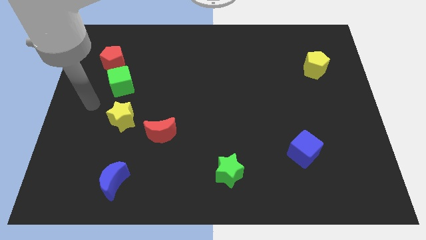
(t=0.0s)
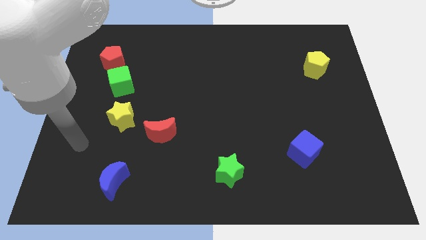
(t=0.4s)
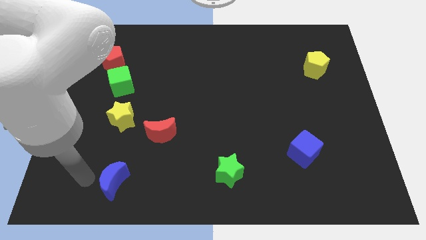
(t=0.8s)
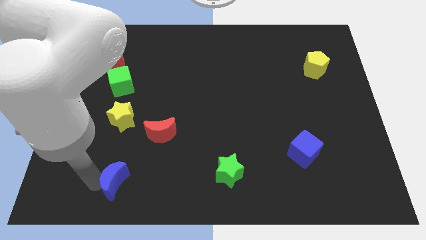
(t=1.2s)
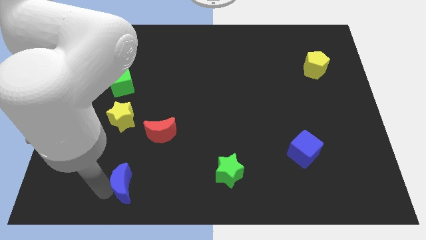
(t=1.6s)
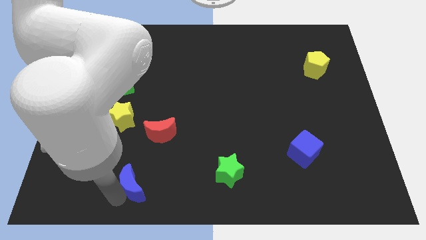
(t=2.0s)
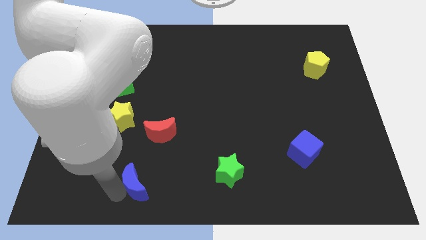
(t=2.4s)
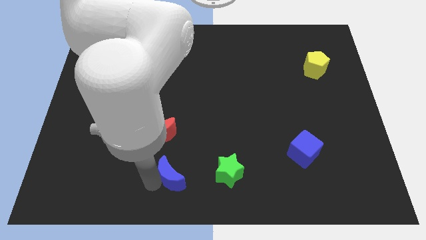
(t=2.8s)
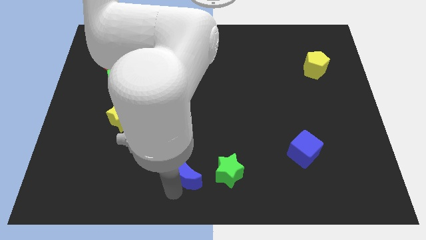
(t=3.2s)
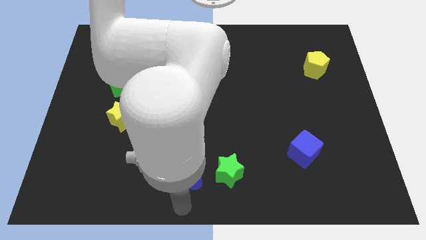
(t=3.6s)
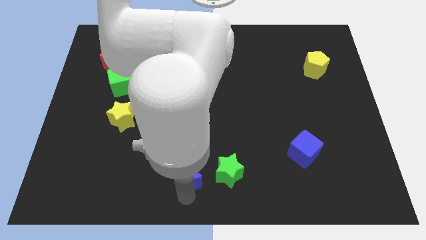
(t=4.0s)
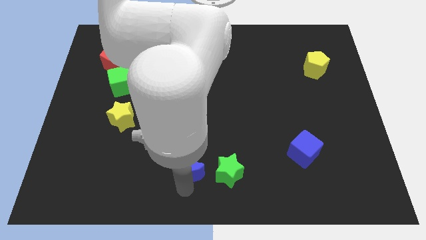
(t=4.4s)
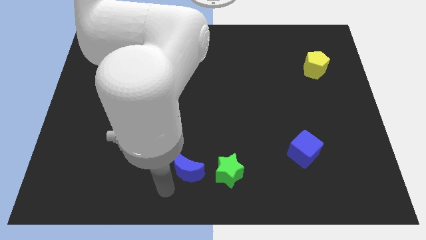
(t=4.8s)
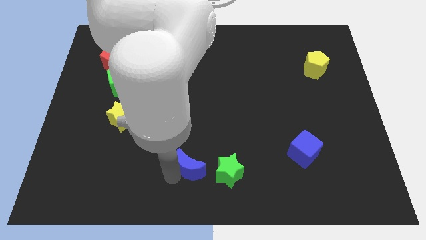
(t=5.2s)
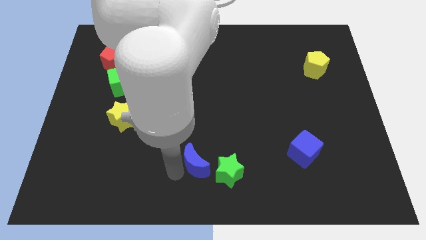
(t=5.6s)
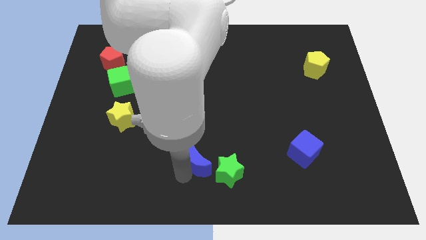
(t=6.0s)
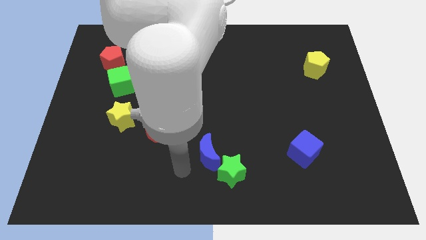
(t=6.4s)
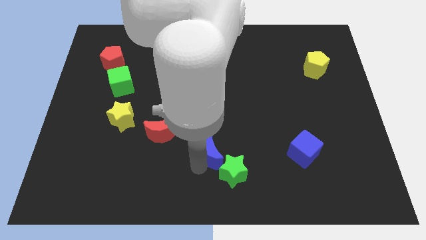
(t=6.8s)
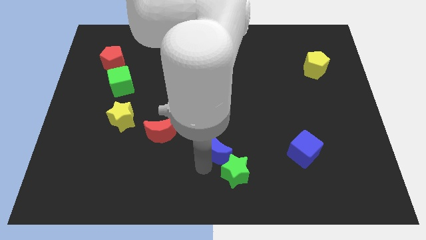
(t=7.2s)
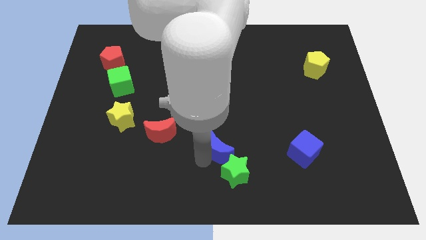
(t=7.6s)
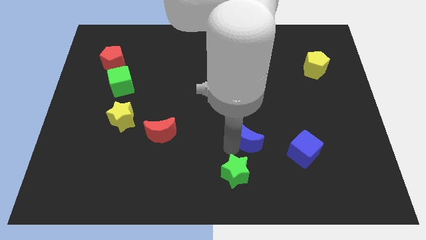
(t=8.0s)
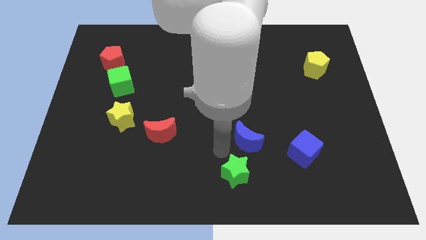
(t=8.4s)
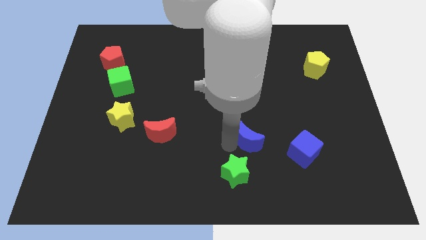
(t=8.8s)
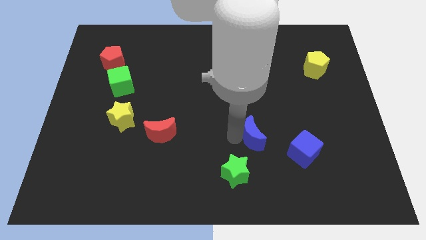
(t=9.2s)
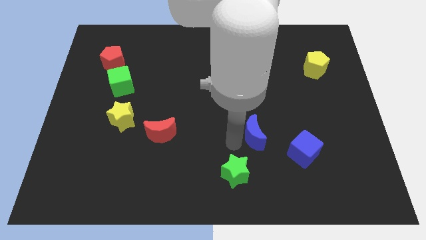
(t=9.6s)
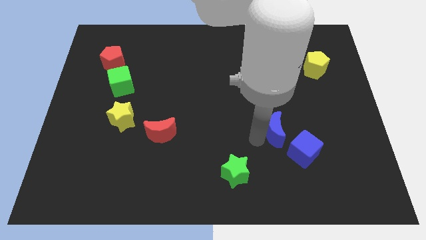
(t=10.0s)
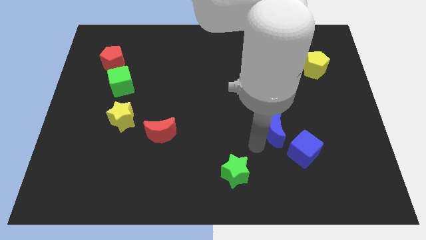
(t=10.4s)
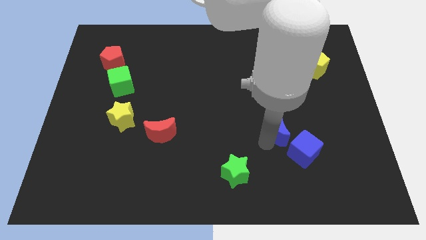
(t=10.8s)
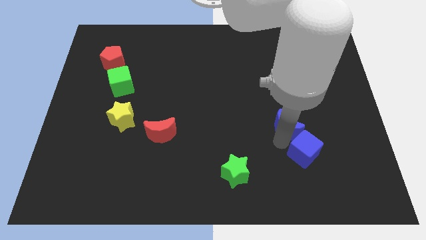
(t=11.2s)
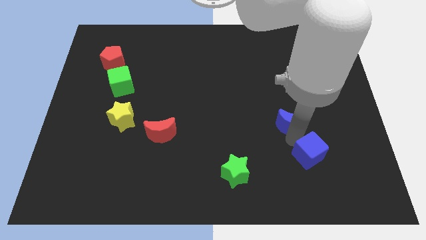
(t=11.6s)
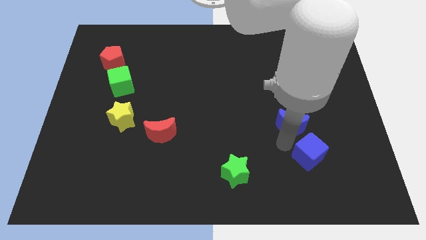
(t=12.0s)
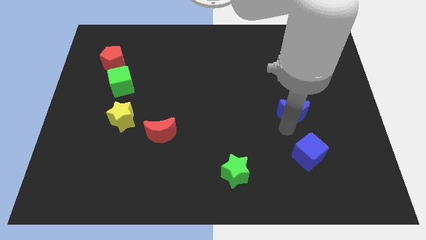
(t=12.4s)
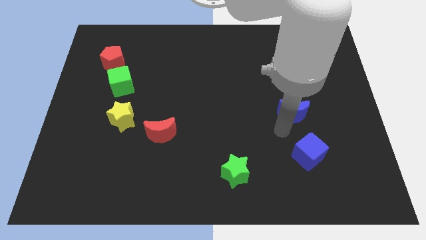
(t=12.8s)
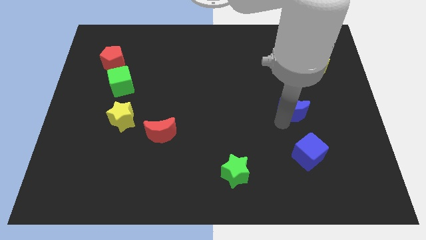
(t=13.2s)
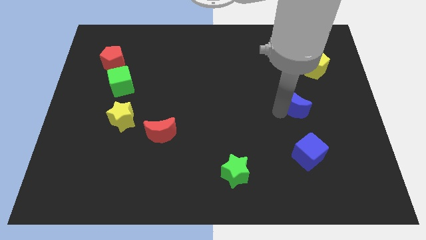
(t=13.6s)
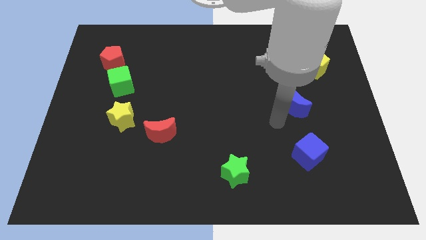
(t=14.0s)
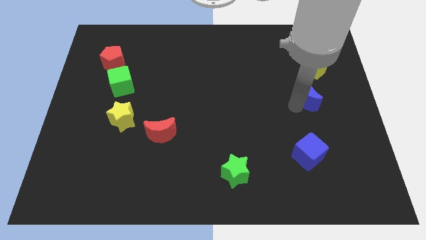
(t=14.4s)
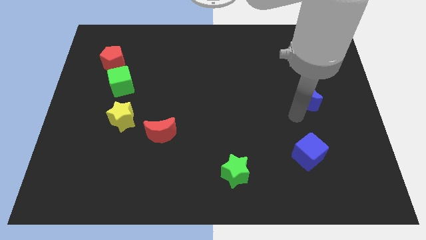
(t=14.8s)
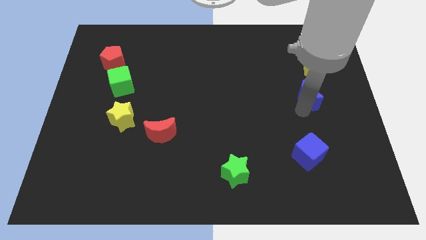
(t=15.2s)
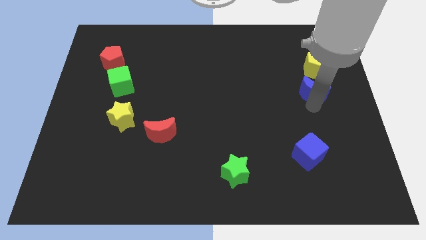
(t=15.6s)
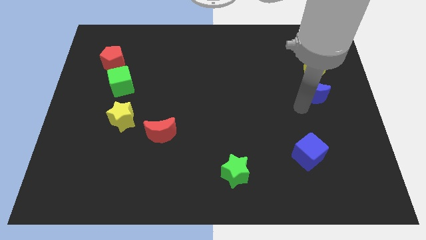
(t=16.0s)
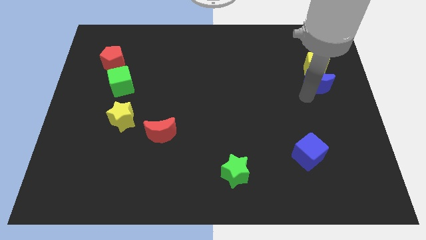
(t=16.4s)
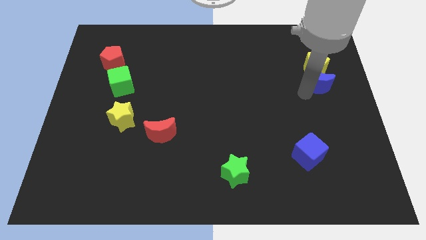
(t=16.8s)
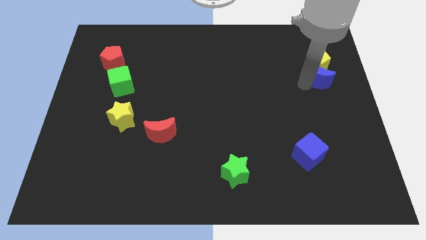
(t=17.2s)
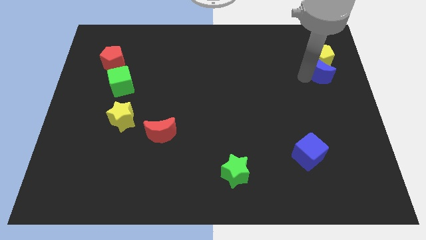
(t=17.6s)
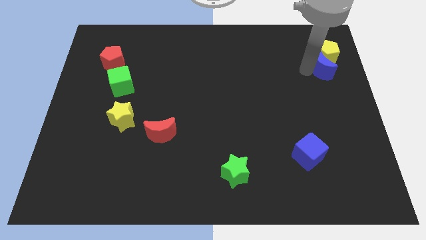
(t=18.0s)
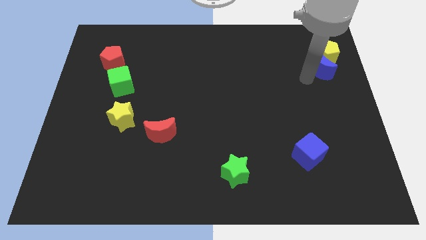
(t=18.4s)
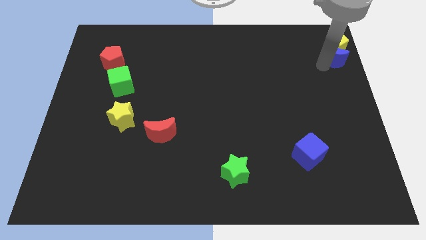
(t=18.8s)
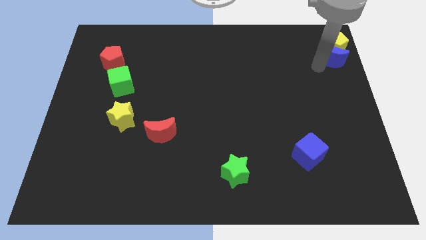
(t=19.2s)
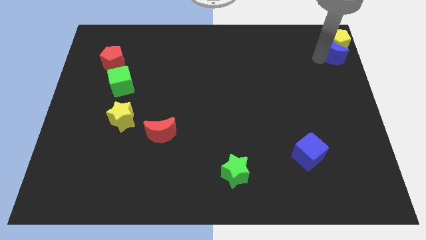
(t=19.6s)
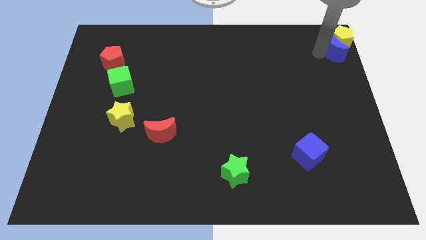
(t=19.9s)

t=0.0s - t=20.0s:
move the blue moon to the top right of the board

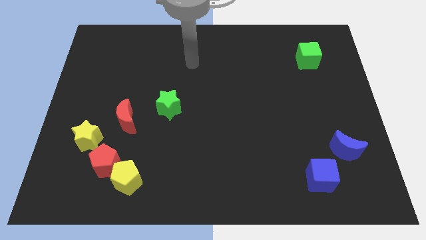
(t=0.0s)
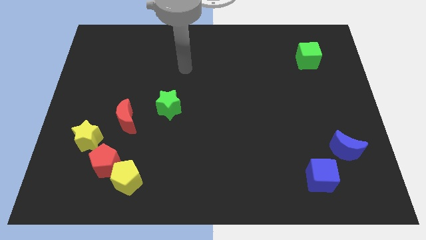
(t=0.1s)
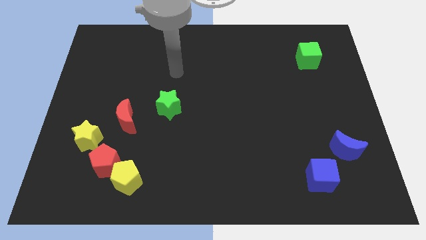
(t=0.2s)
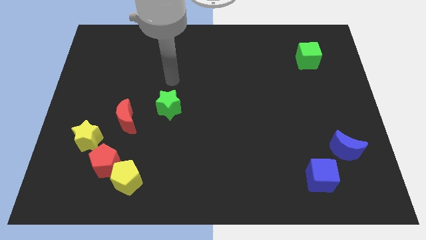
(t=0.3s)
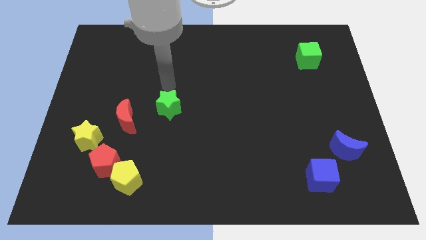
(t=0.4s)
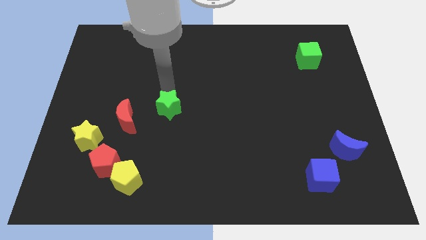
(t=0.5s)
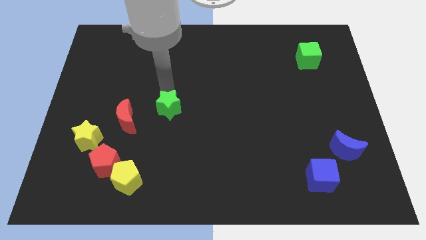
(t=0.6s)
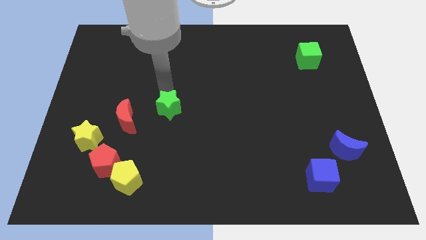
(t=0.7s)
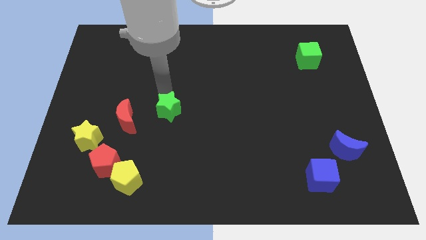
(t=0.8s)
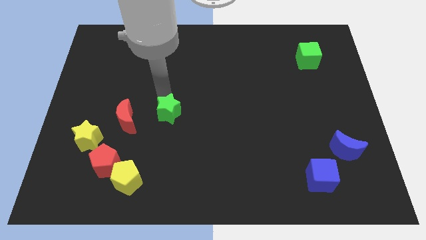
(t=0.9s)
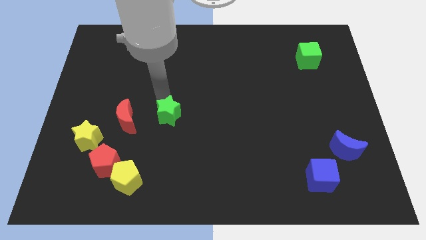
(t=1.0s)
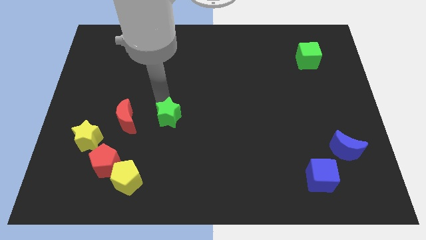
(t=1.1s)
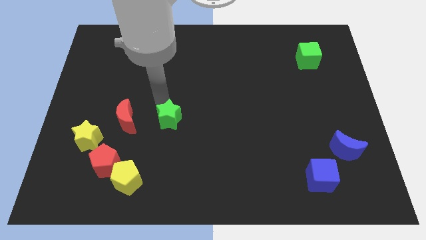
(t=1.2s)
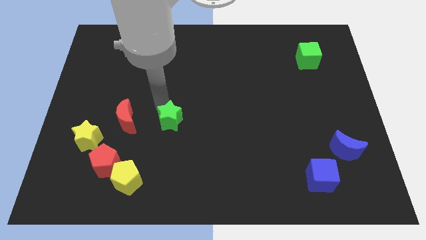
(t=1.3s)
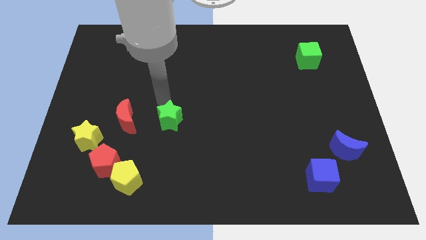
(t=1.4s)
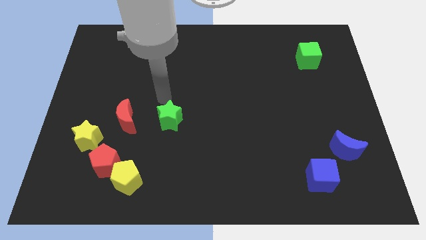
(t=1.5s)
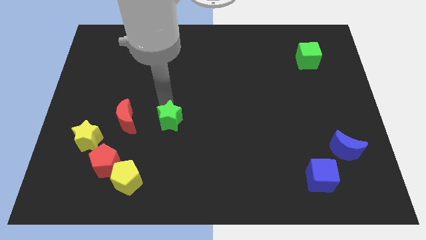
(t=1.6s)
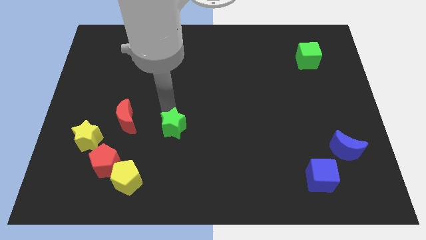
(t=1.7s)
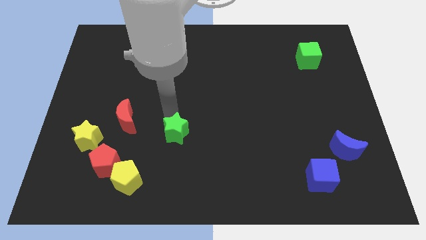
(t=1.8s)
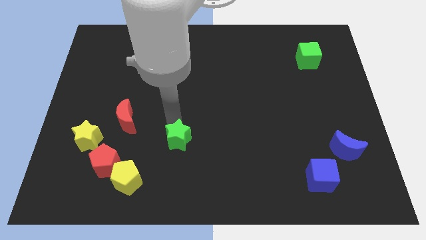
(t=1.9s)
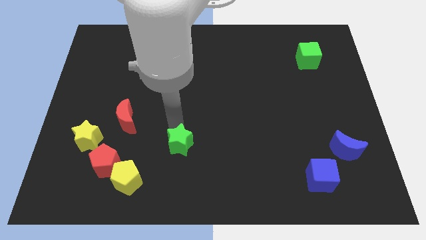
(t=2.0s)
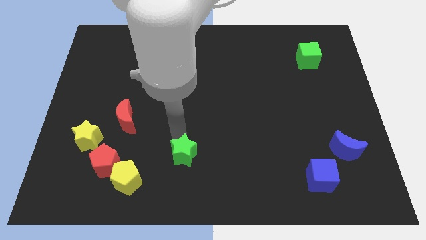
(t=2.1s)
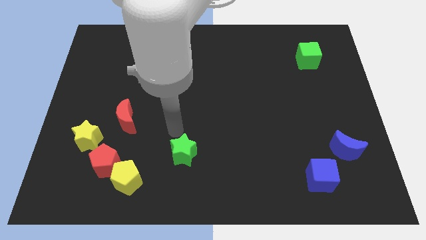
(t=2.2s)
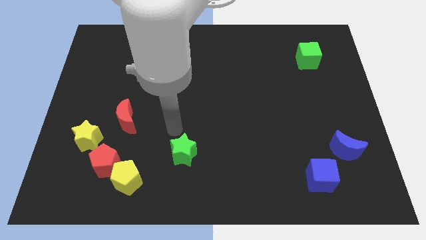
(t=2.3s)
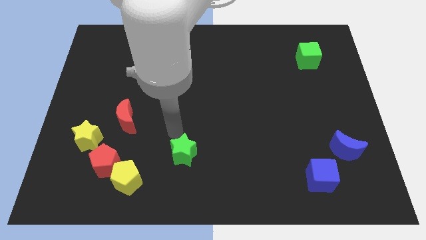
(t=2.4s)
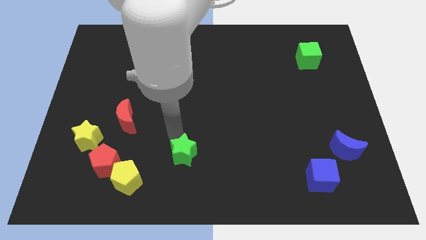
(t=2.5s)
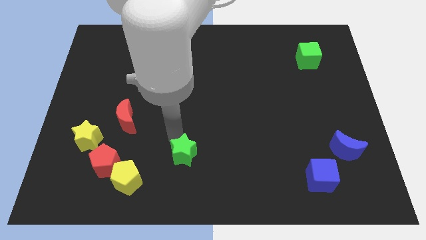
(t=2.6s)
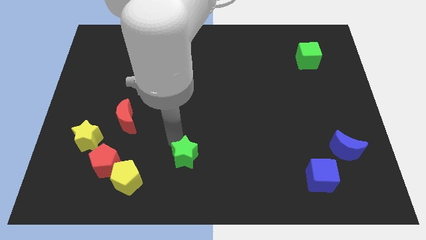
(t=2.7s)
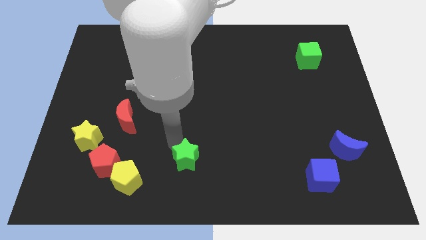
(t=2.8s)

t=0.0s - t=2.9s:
push the green star to the bottom side
